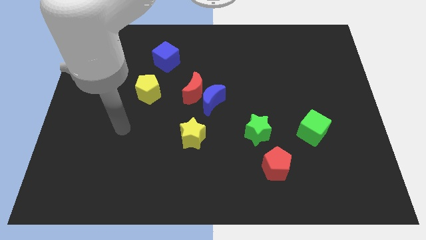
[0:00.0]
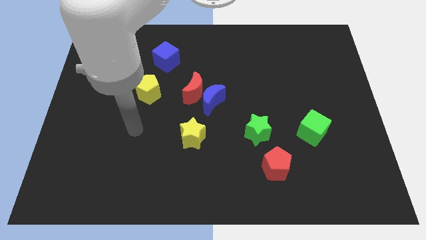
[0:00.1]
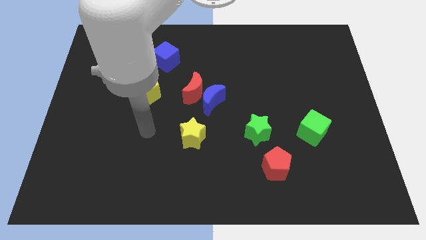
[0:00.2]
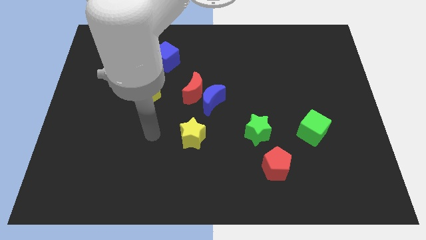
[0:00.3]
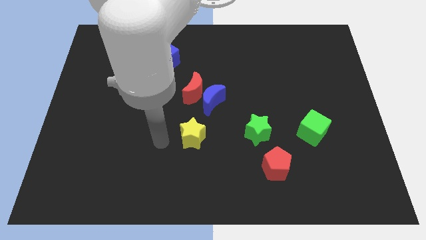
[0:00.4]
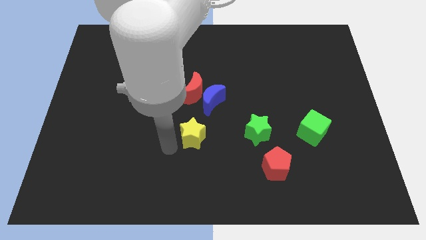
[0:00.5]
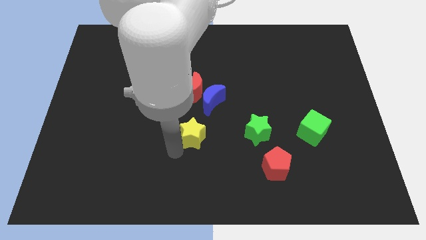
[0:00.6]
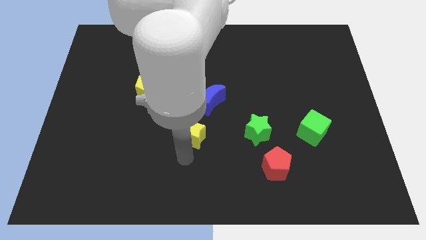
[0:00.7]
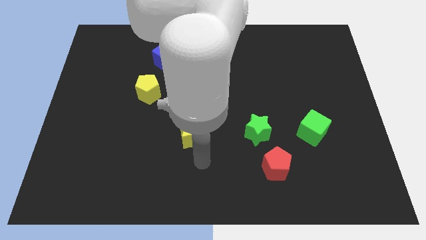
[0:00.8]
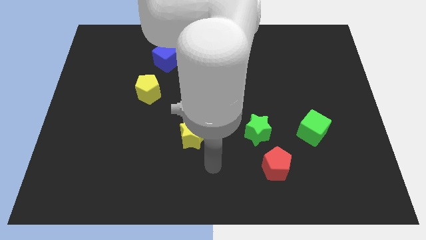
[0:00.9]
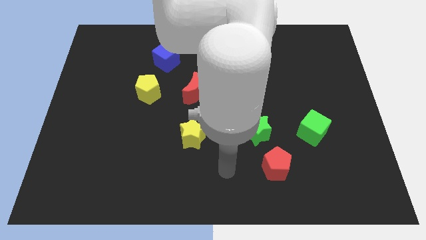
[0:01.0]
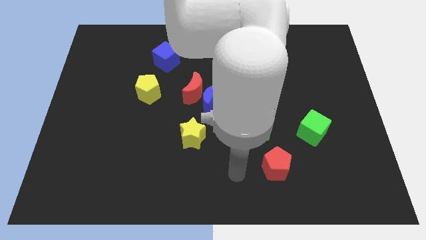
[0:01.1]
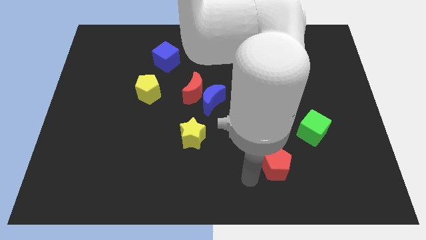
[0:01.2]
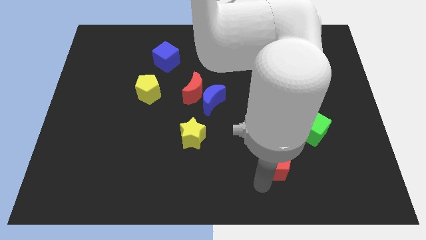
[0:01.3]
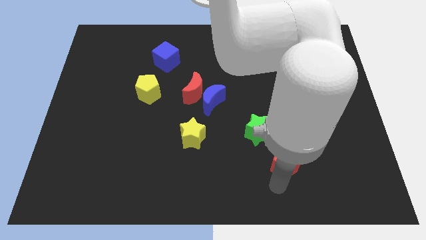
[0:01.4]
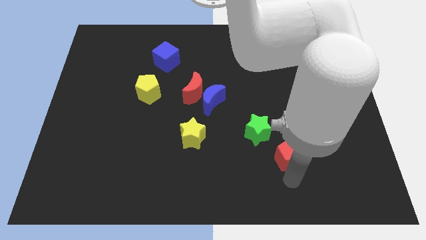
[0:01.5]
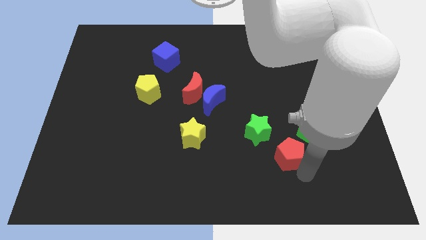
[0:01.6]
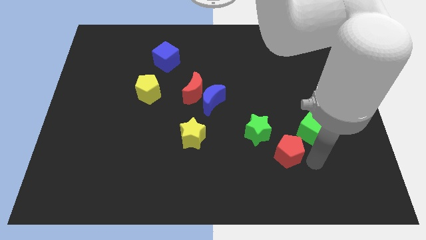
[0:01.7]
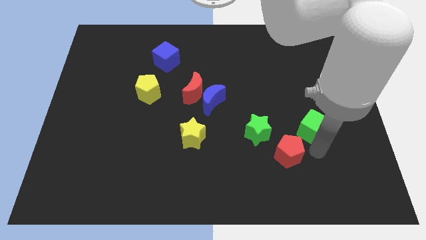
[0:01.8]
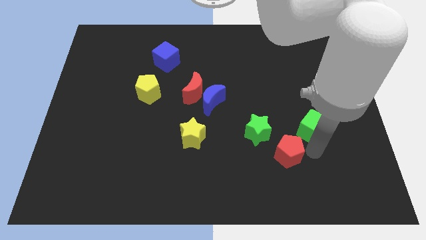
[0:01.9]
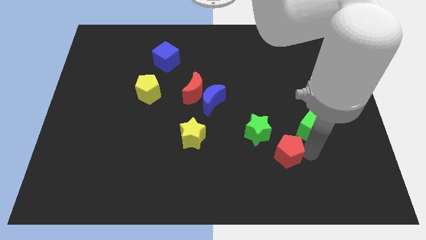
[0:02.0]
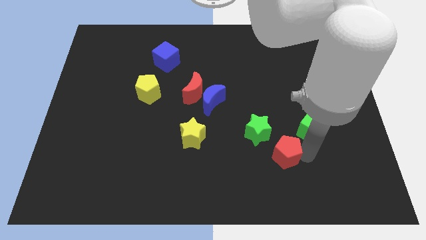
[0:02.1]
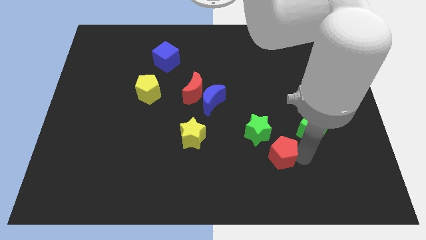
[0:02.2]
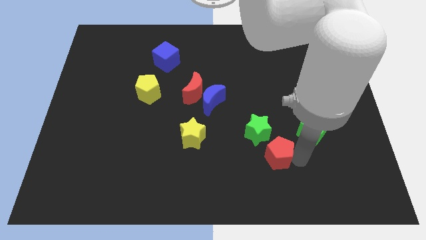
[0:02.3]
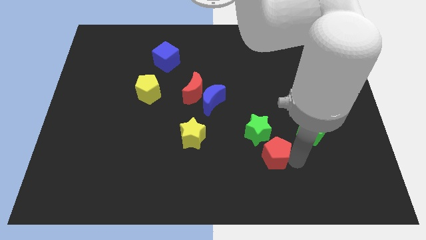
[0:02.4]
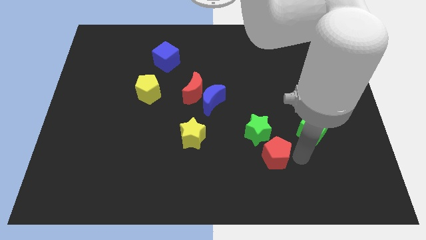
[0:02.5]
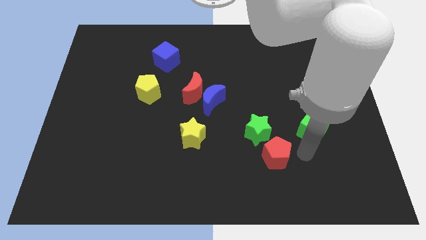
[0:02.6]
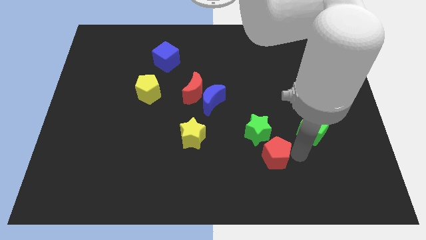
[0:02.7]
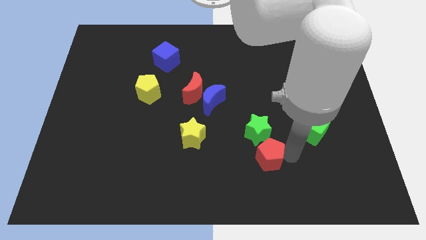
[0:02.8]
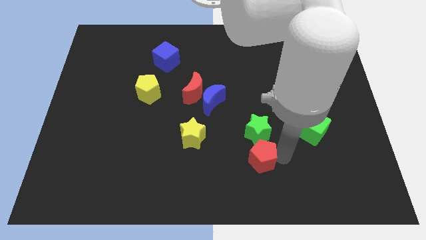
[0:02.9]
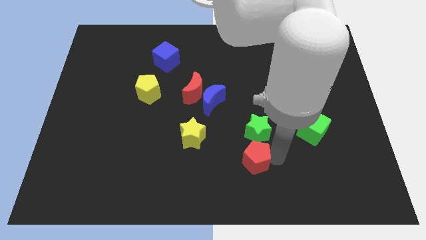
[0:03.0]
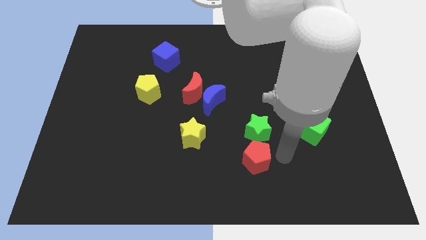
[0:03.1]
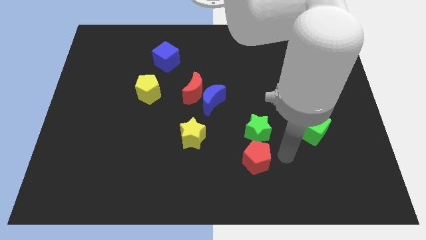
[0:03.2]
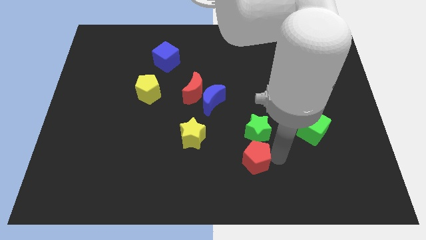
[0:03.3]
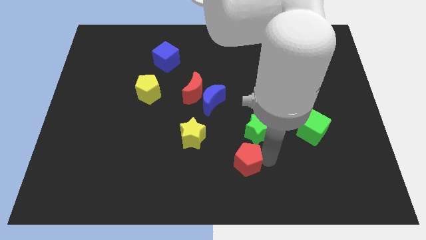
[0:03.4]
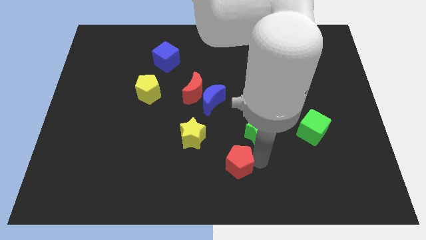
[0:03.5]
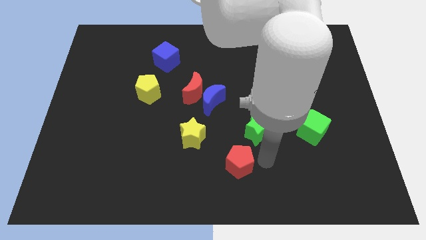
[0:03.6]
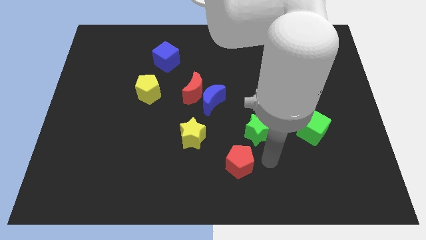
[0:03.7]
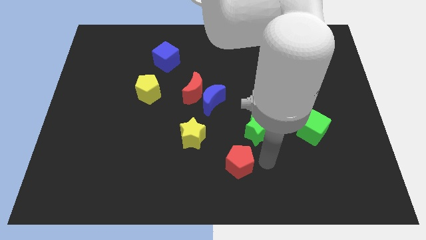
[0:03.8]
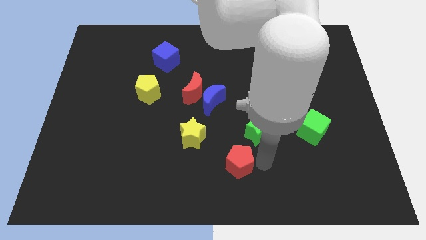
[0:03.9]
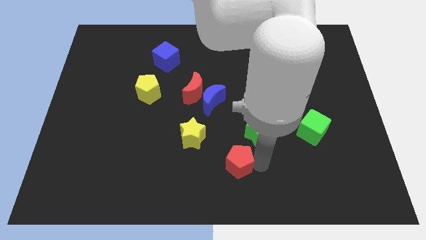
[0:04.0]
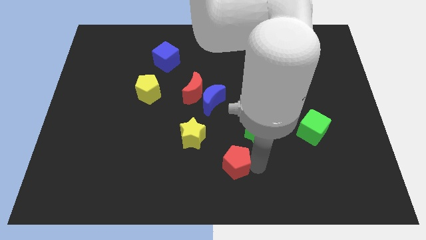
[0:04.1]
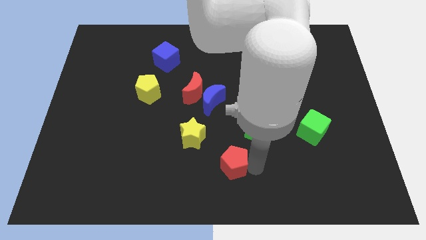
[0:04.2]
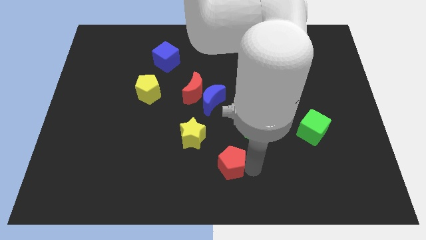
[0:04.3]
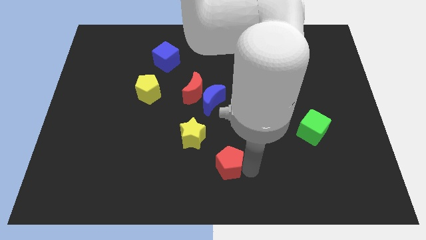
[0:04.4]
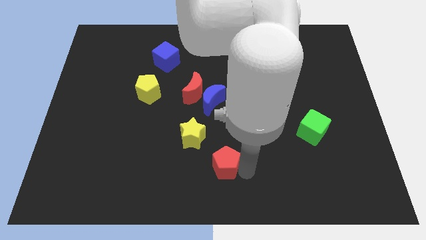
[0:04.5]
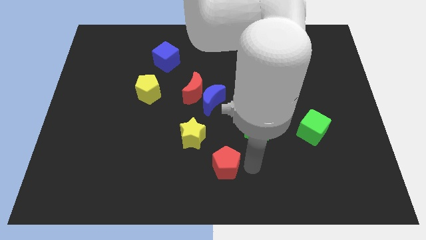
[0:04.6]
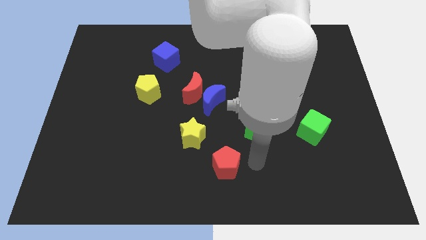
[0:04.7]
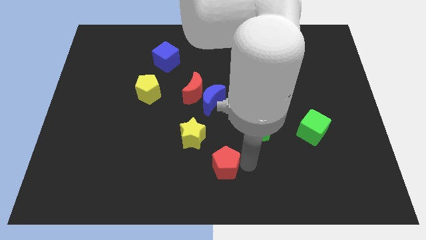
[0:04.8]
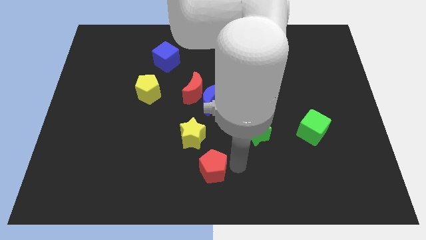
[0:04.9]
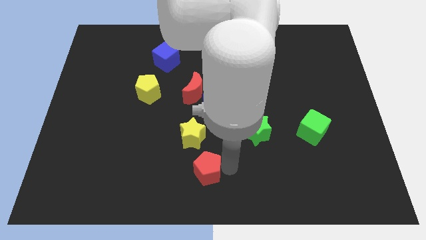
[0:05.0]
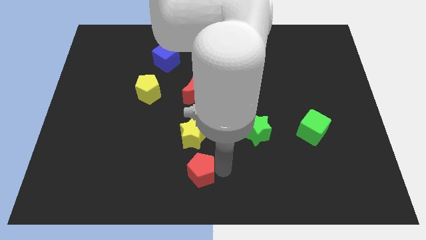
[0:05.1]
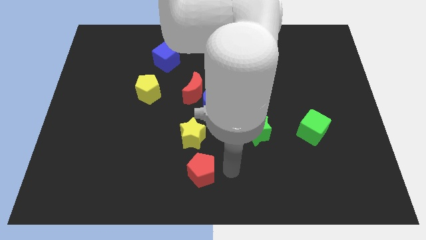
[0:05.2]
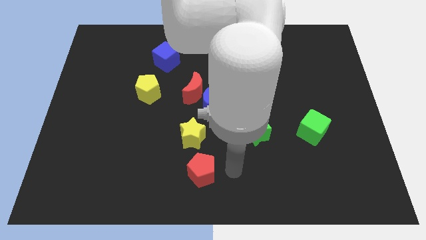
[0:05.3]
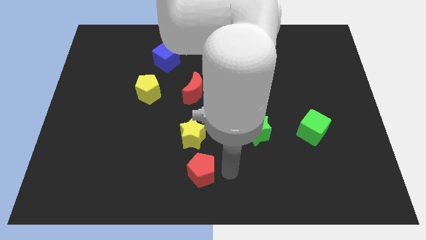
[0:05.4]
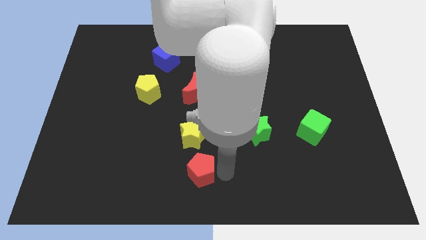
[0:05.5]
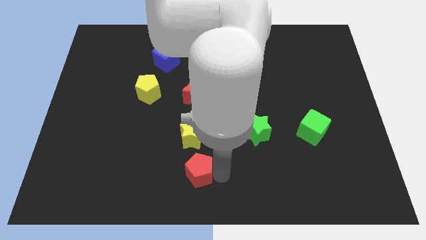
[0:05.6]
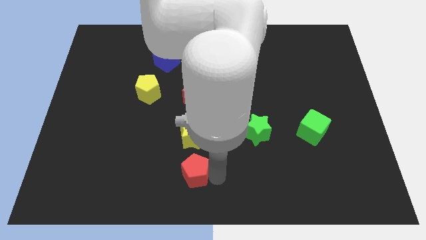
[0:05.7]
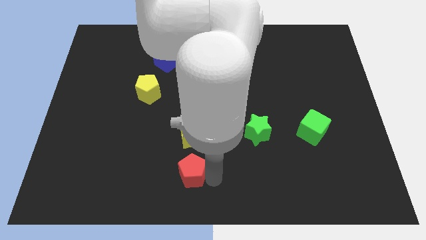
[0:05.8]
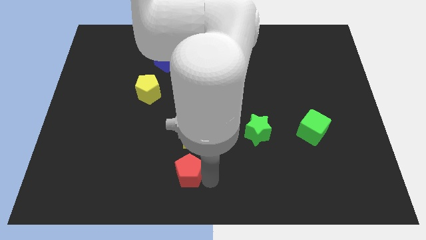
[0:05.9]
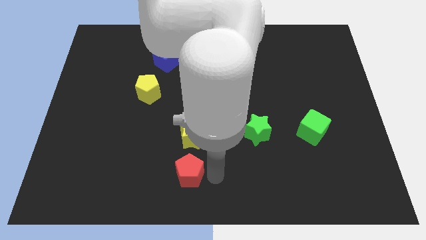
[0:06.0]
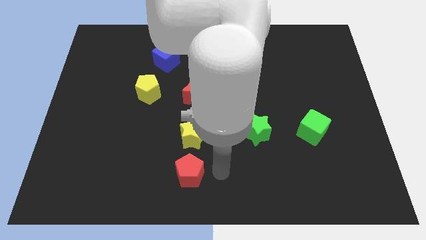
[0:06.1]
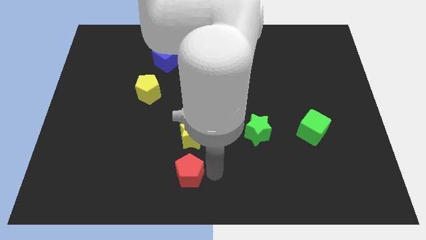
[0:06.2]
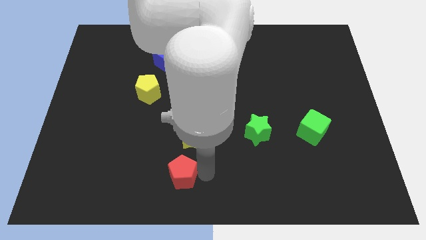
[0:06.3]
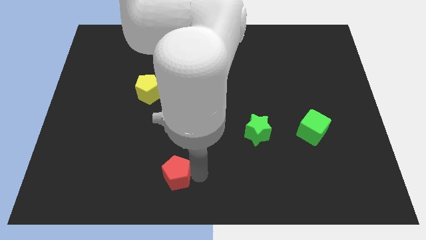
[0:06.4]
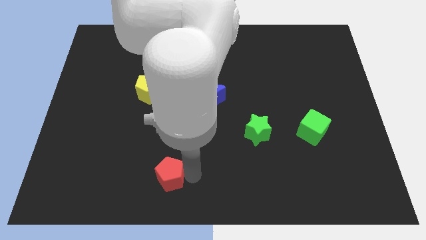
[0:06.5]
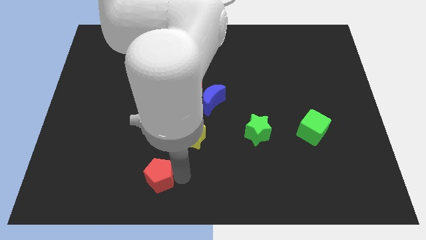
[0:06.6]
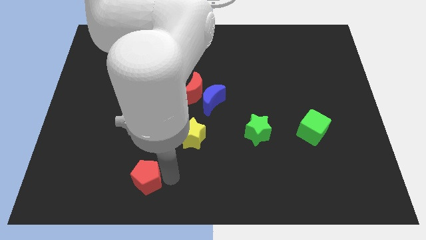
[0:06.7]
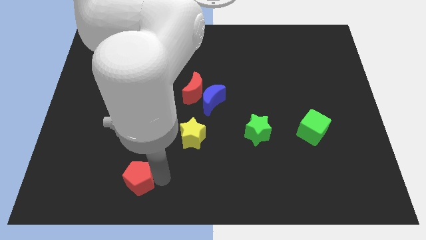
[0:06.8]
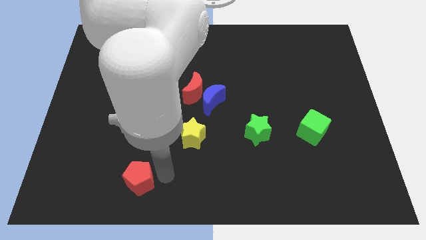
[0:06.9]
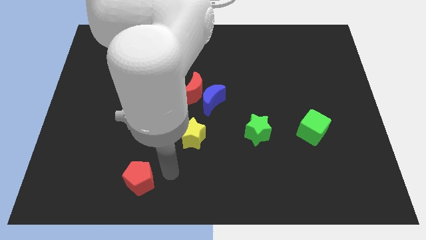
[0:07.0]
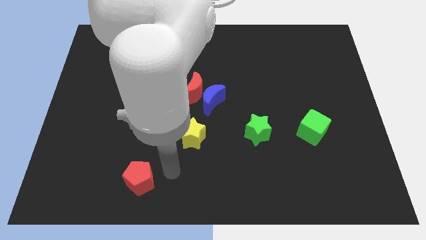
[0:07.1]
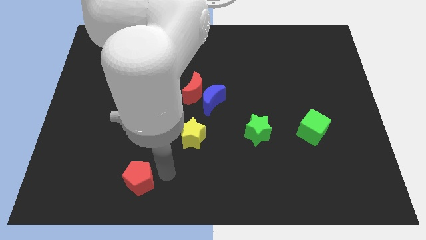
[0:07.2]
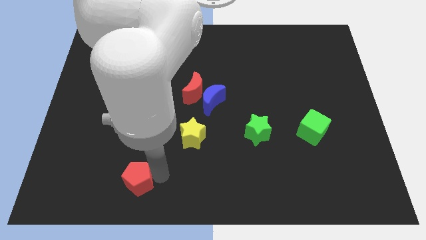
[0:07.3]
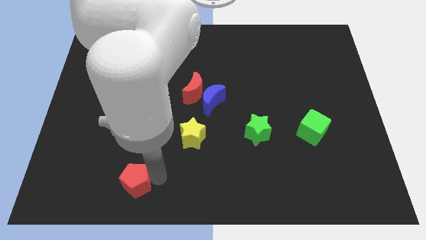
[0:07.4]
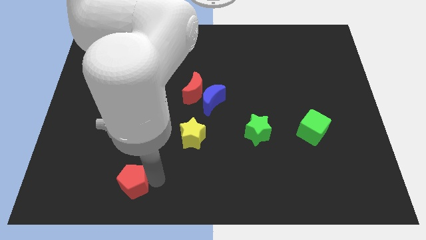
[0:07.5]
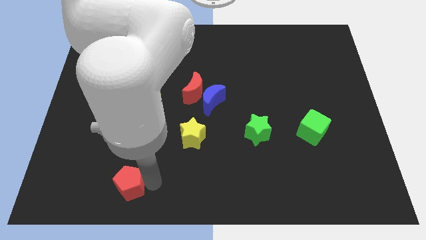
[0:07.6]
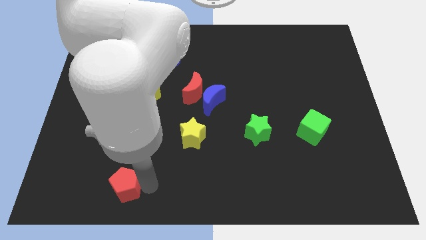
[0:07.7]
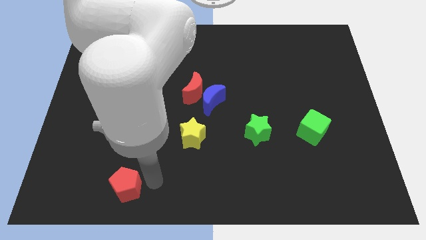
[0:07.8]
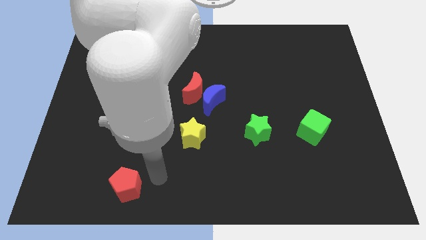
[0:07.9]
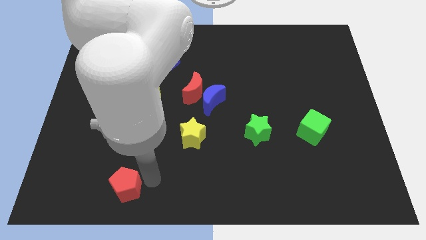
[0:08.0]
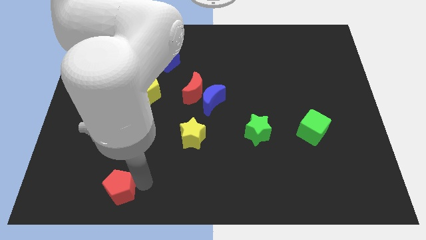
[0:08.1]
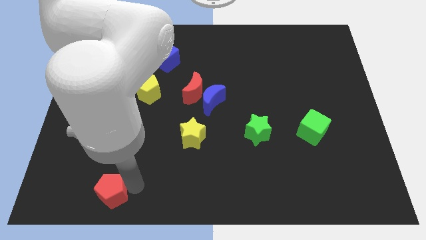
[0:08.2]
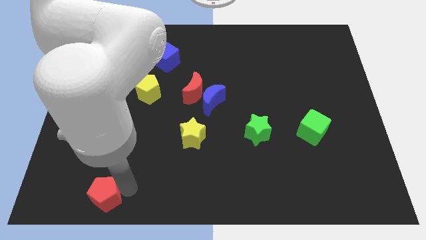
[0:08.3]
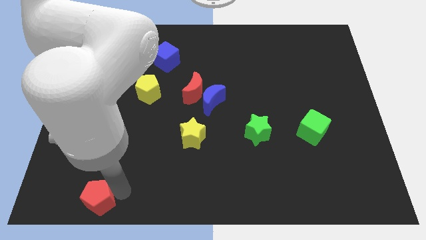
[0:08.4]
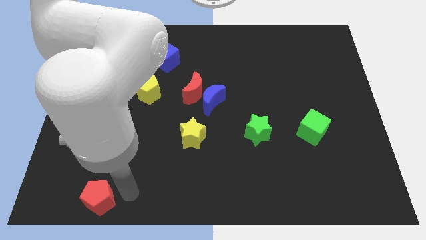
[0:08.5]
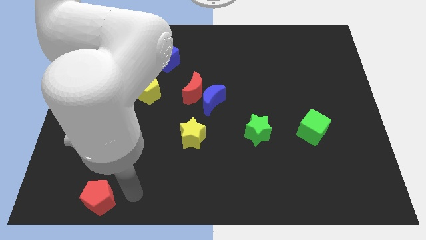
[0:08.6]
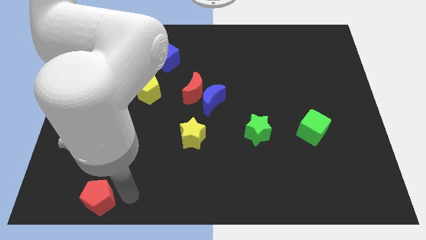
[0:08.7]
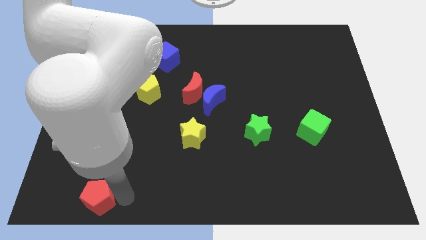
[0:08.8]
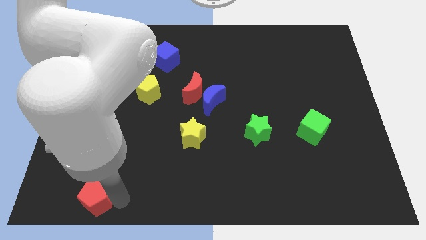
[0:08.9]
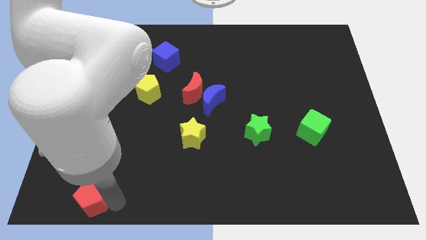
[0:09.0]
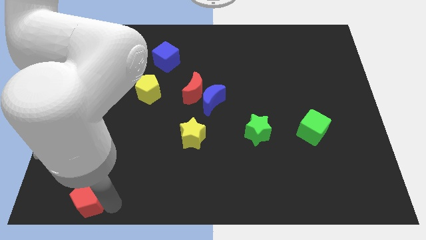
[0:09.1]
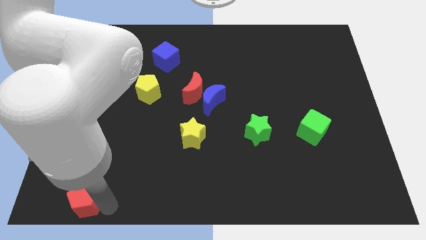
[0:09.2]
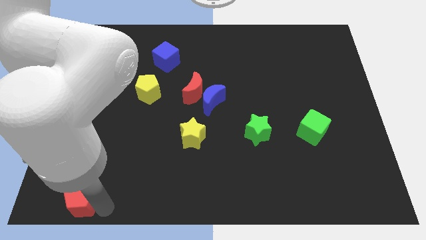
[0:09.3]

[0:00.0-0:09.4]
slide the red pentagon to the lower left corner
